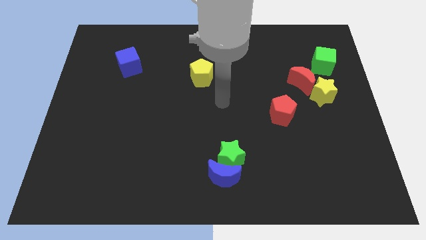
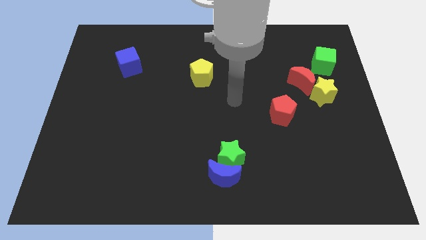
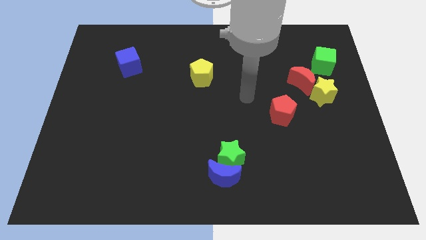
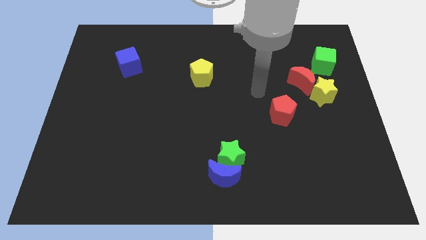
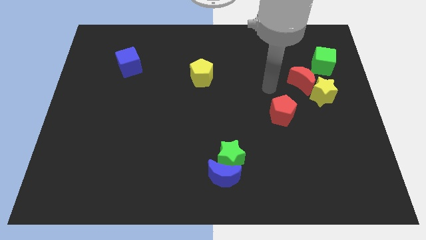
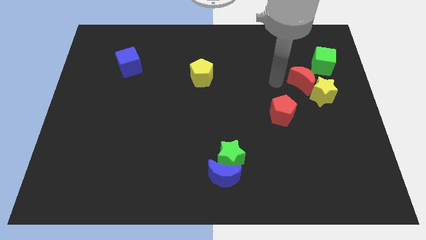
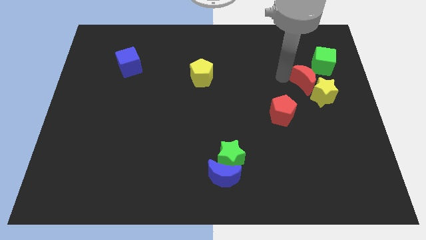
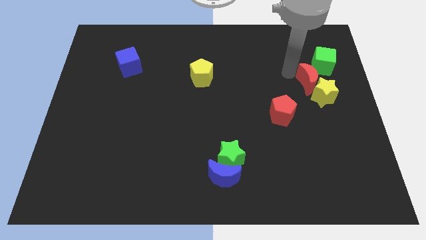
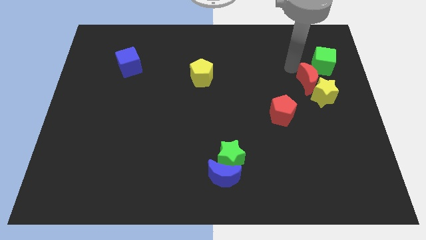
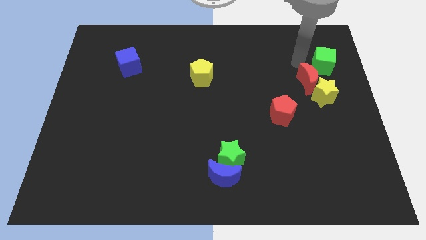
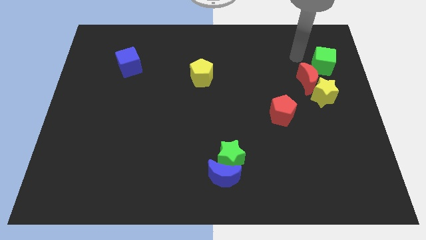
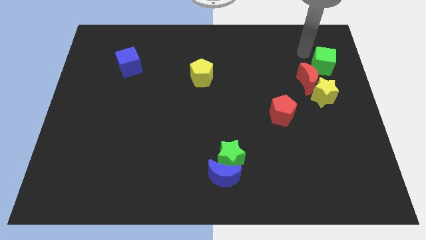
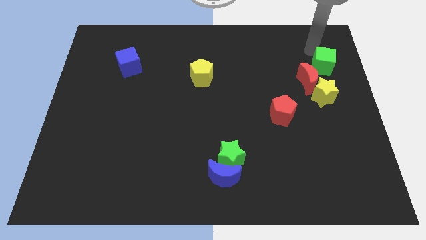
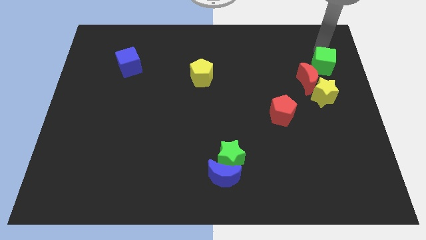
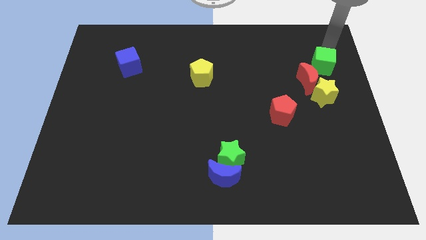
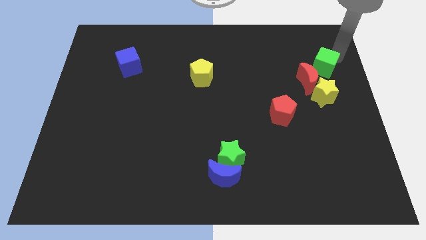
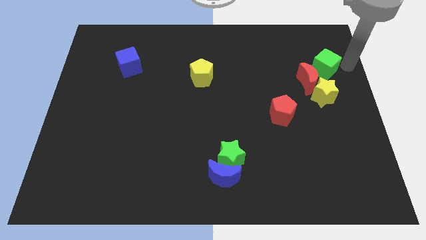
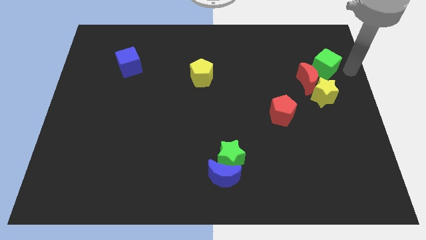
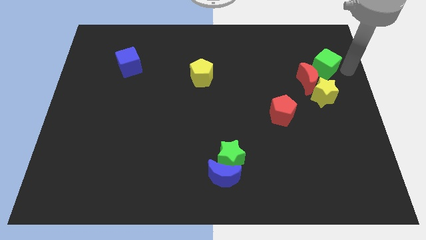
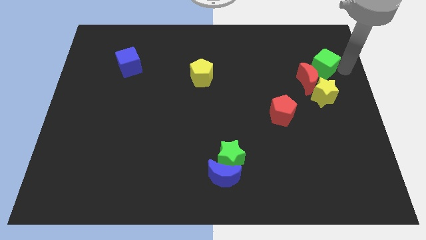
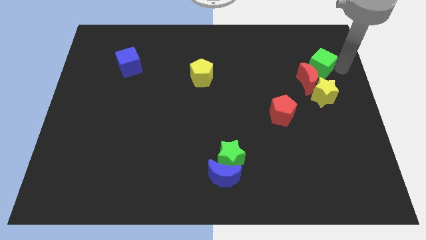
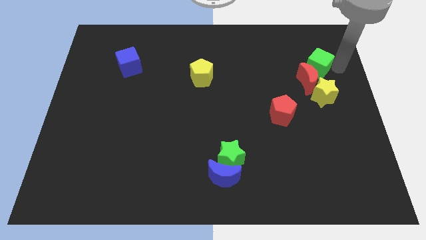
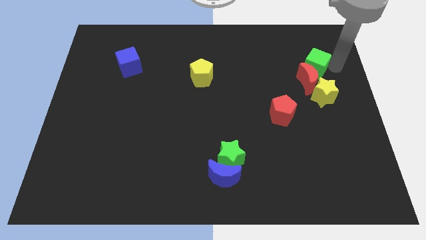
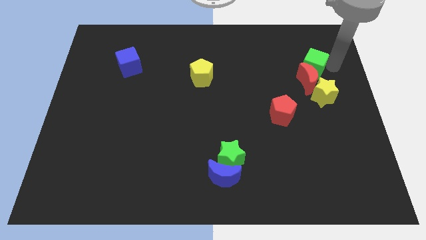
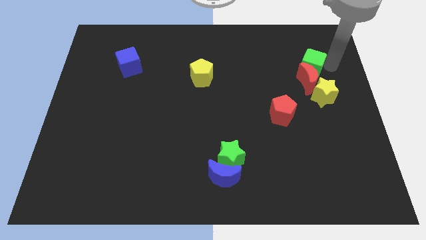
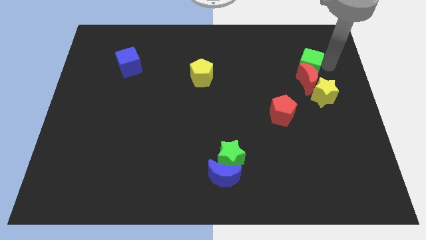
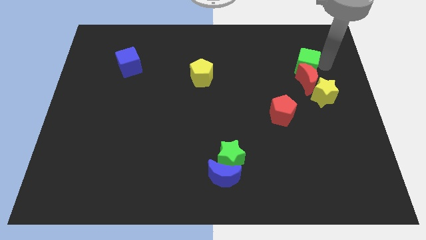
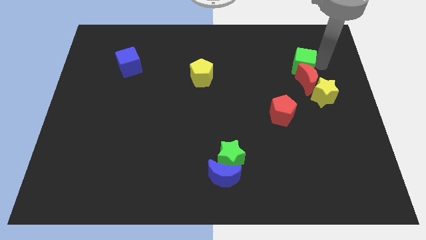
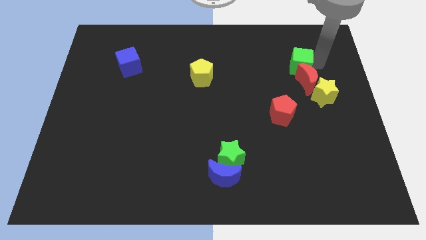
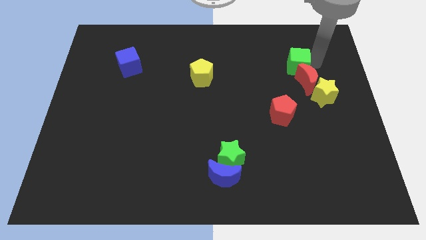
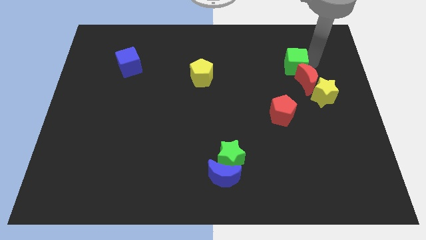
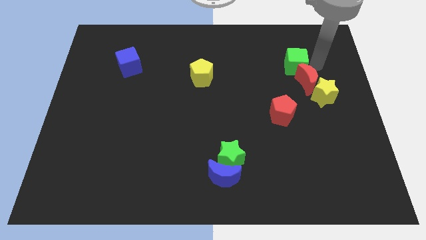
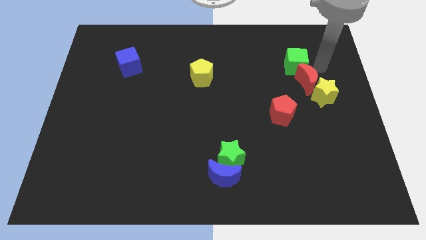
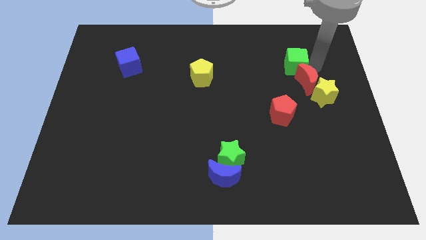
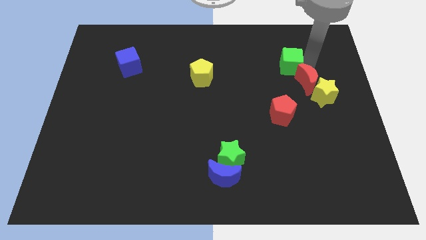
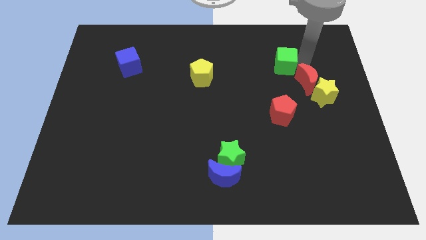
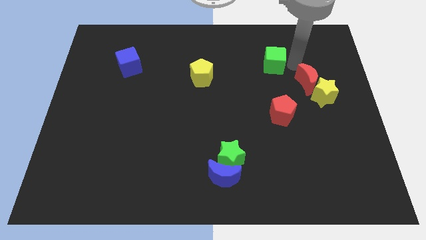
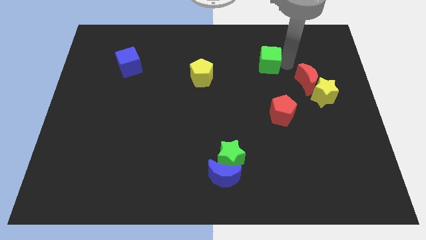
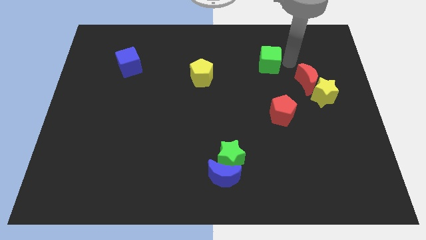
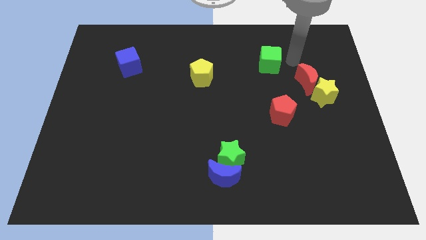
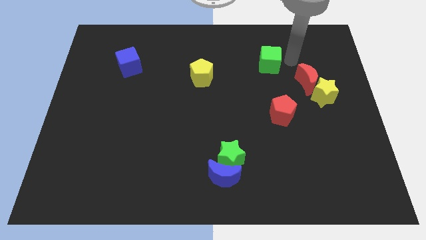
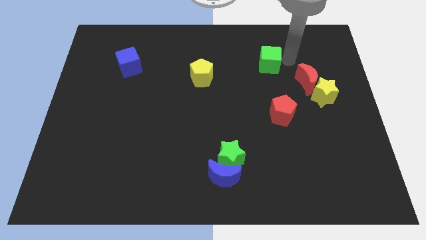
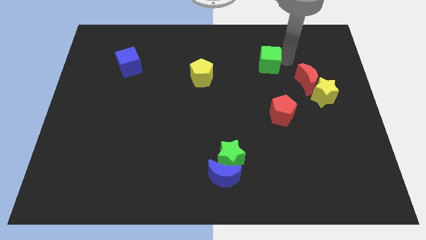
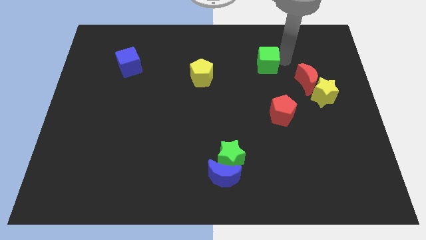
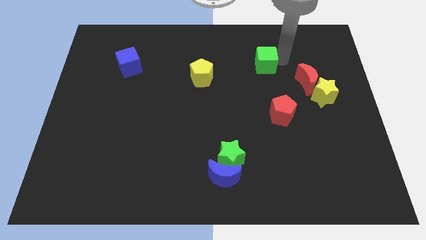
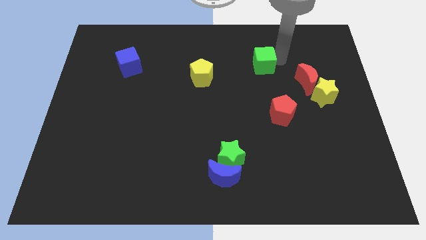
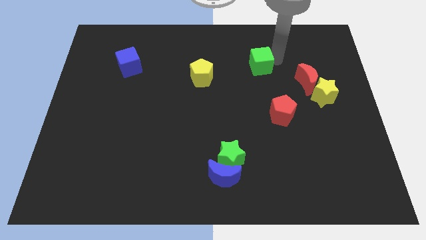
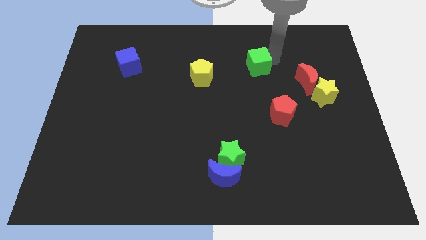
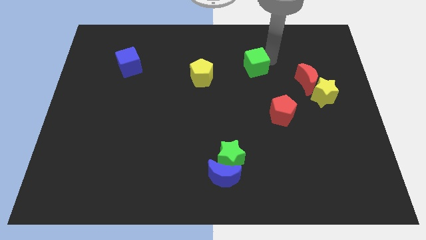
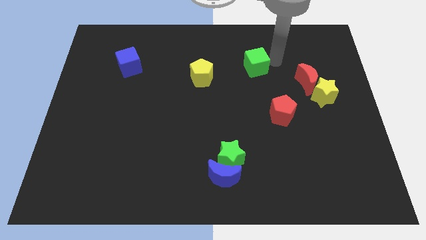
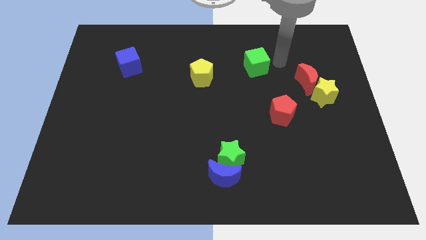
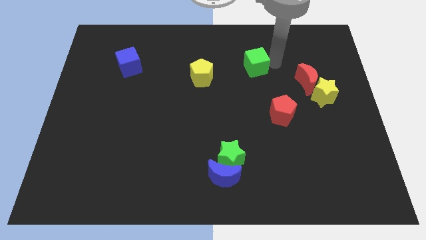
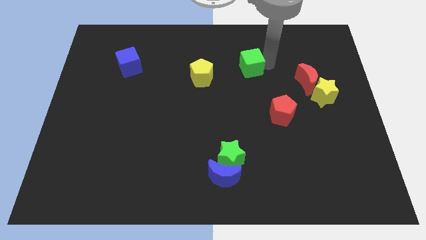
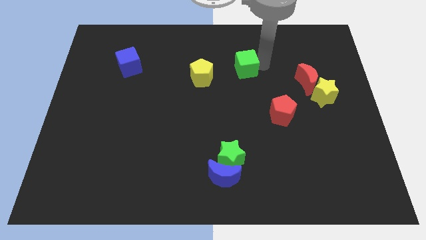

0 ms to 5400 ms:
slide the green cube to the left

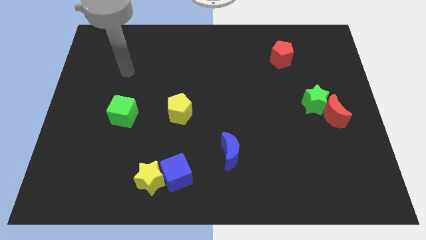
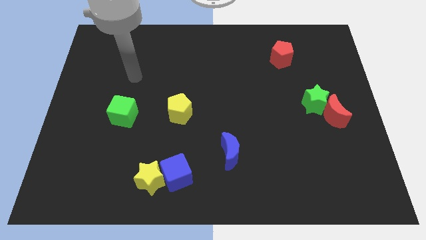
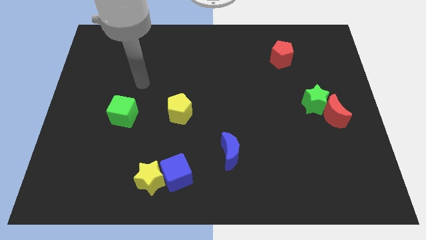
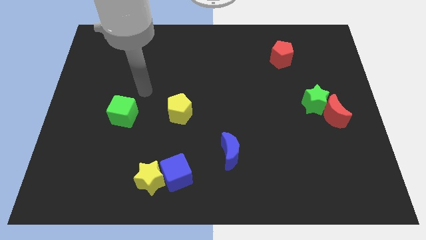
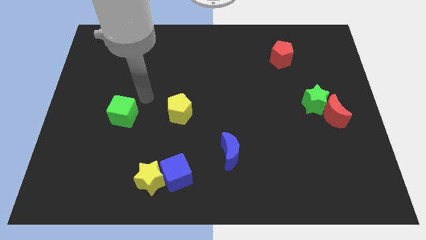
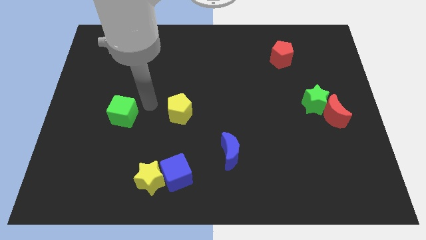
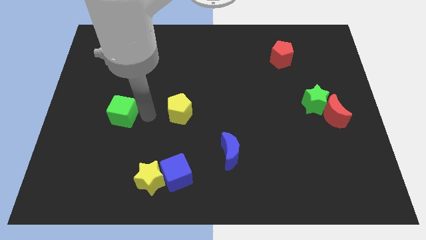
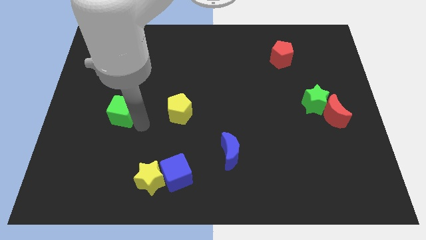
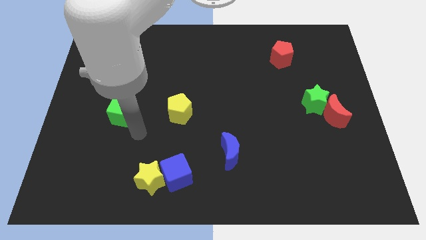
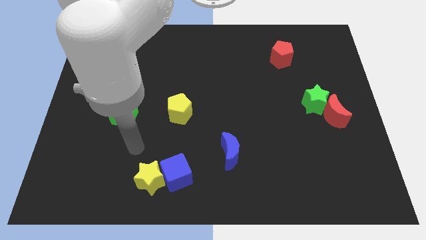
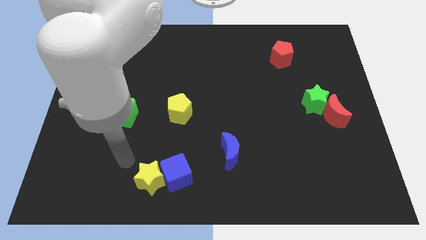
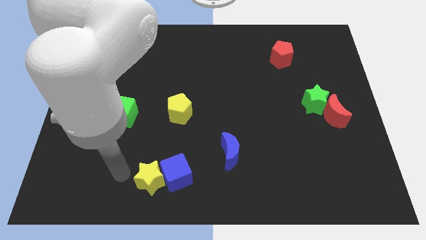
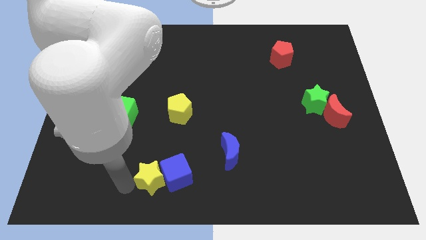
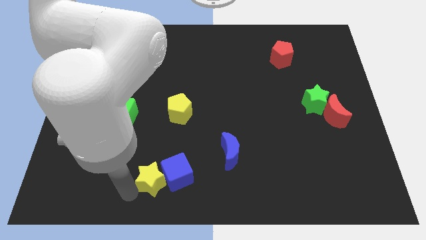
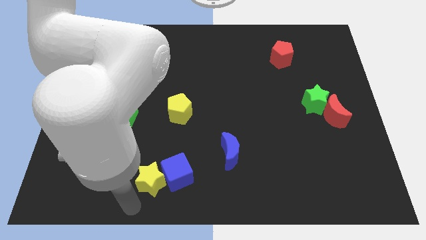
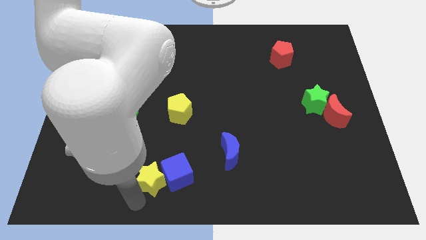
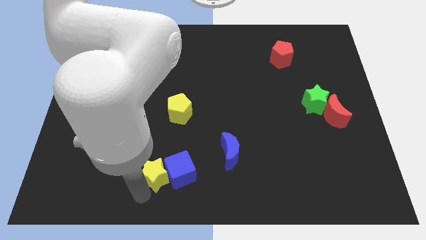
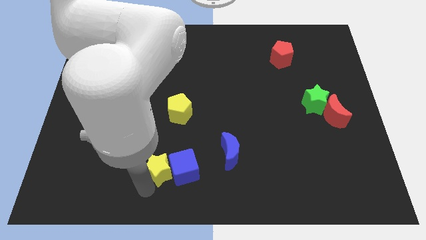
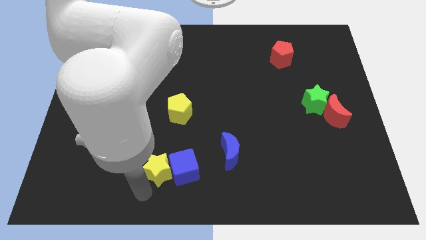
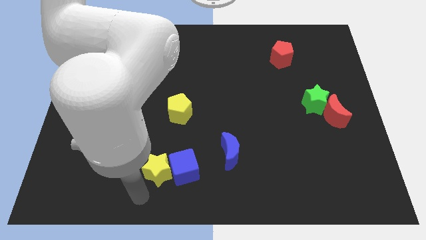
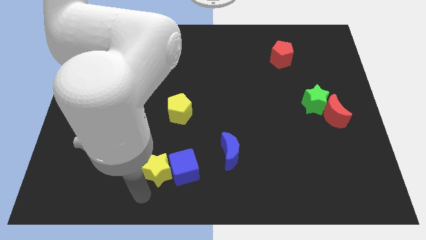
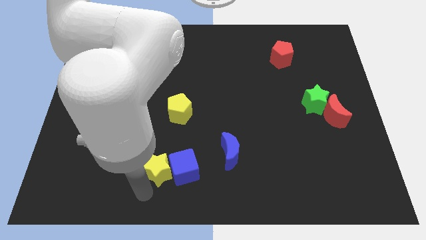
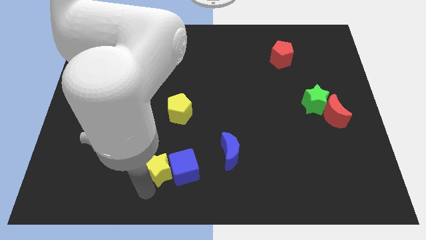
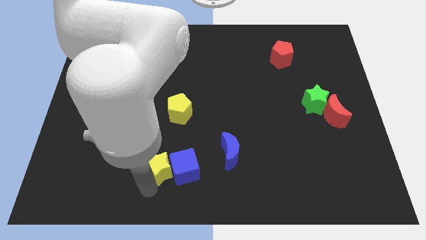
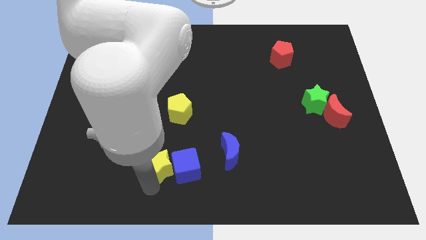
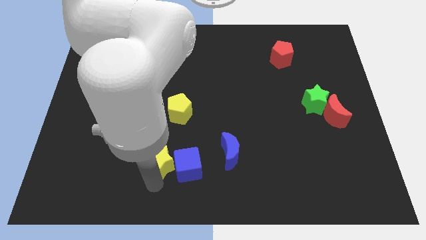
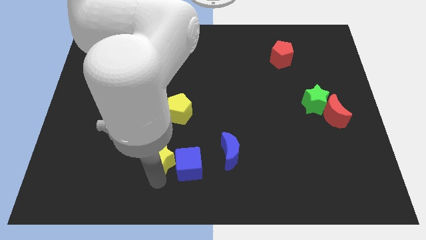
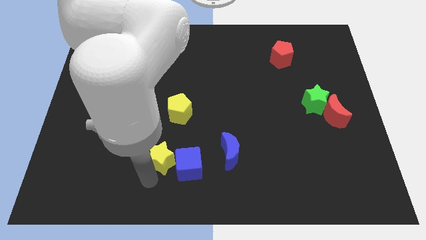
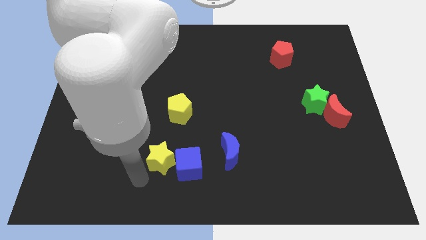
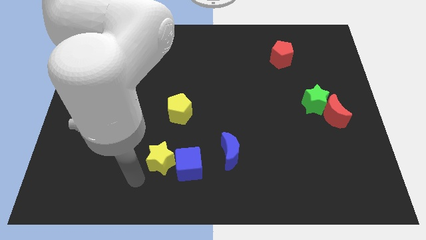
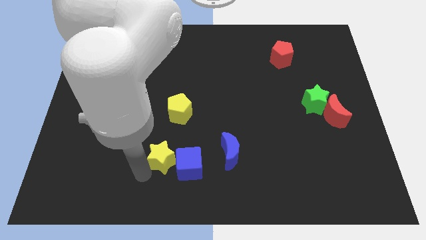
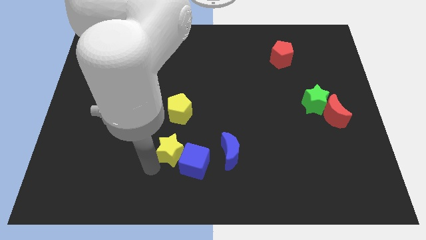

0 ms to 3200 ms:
slide the yellow star up and right diagonally a little bit
